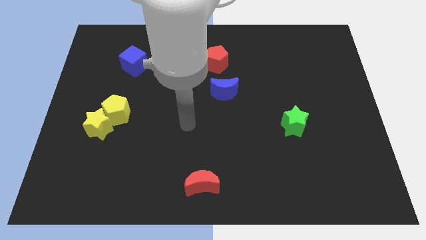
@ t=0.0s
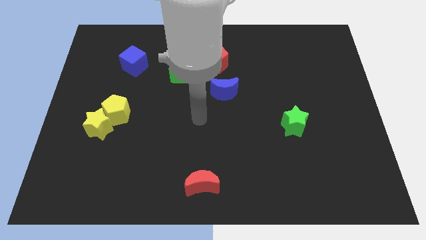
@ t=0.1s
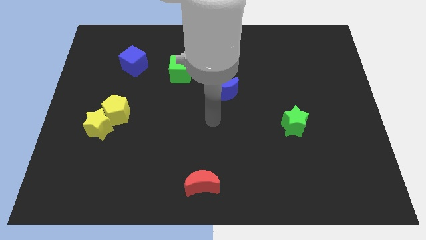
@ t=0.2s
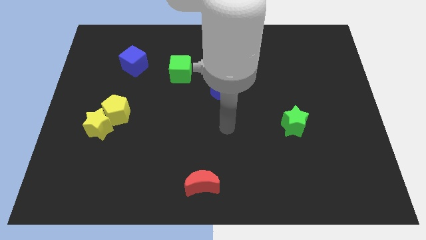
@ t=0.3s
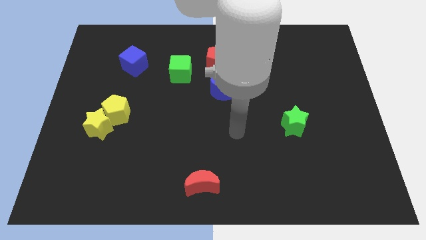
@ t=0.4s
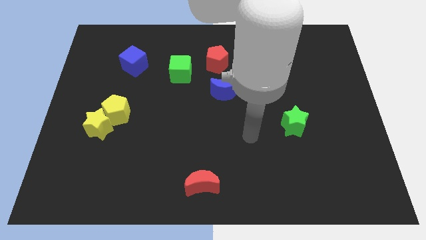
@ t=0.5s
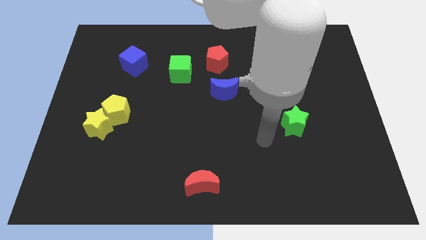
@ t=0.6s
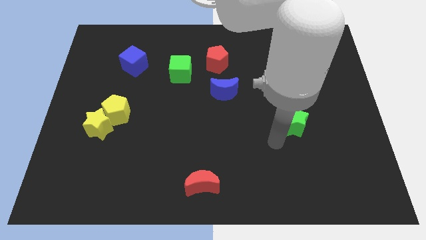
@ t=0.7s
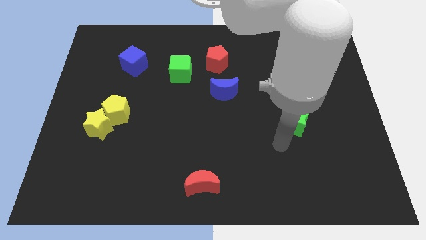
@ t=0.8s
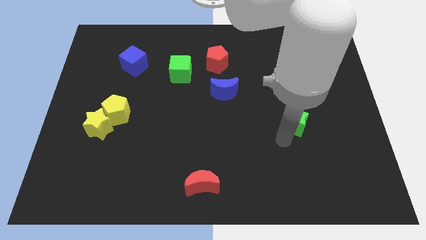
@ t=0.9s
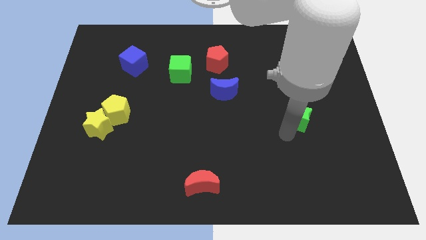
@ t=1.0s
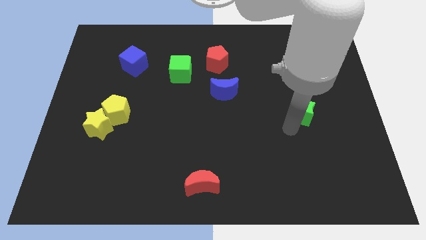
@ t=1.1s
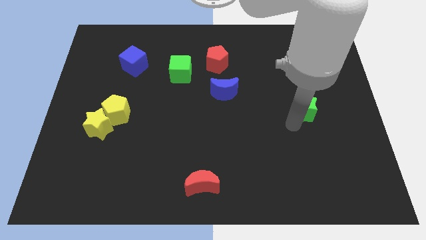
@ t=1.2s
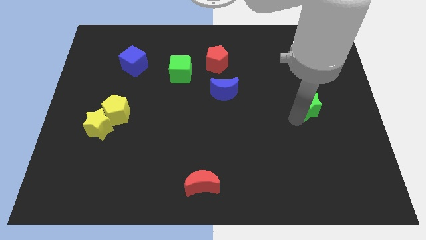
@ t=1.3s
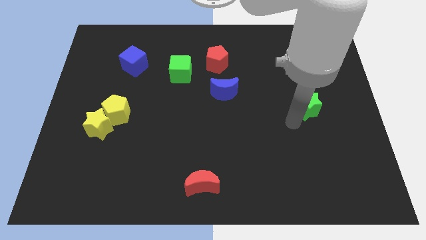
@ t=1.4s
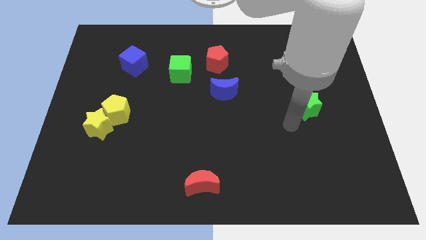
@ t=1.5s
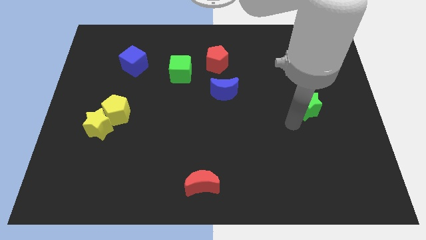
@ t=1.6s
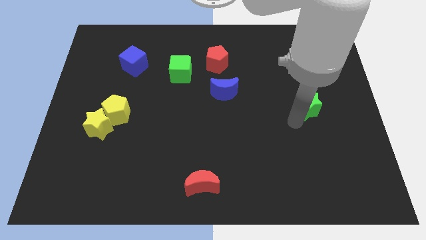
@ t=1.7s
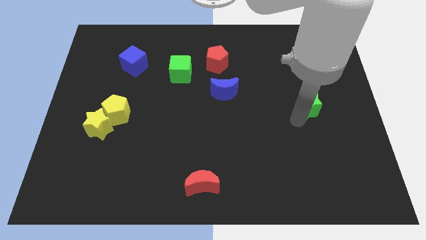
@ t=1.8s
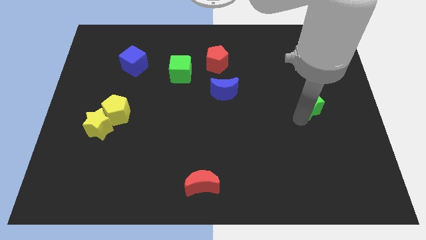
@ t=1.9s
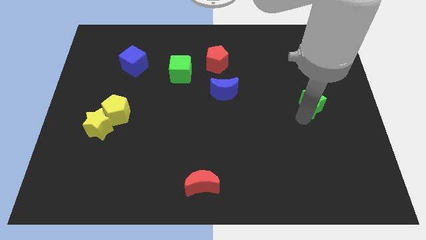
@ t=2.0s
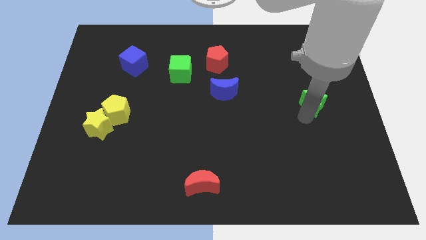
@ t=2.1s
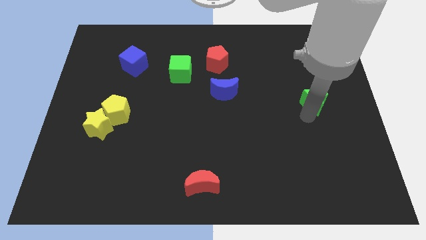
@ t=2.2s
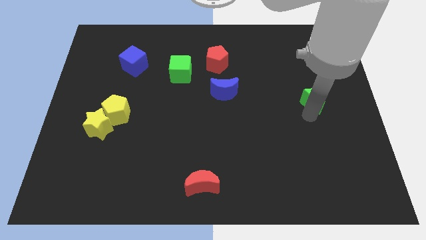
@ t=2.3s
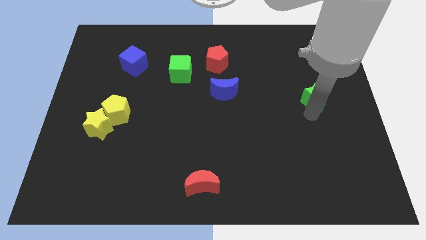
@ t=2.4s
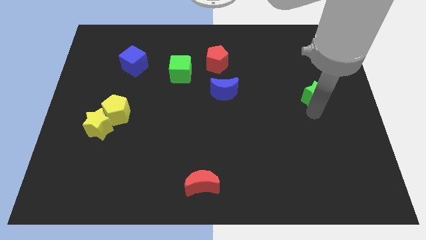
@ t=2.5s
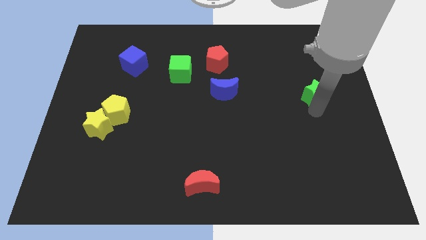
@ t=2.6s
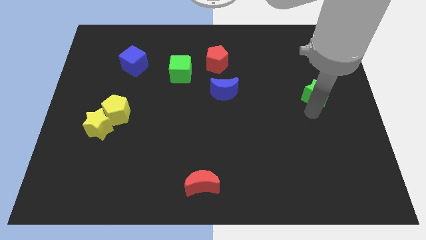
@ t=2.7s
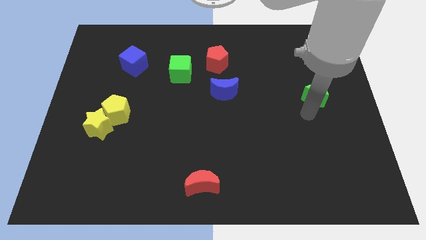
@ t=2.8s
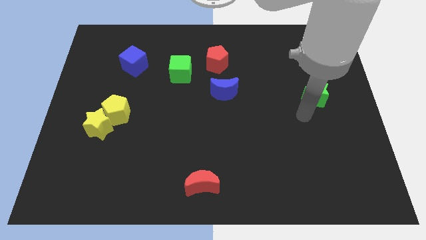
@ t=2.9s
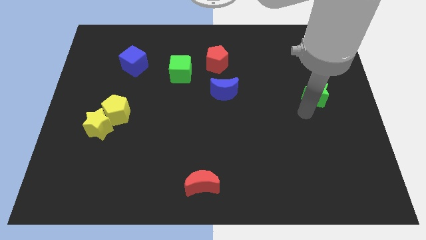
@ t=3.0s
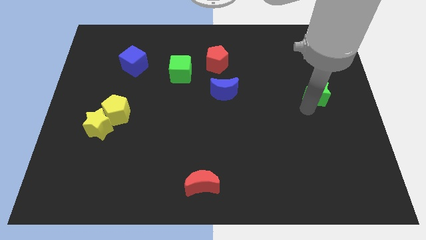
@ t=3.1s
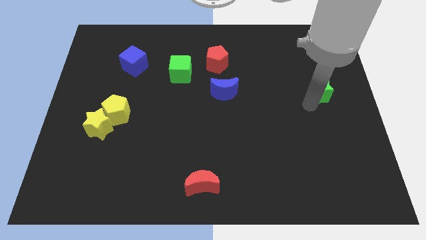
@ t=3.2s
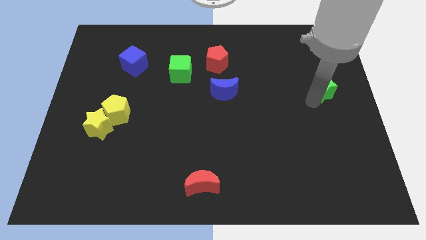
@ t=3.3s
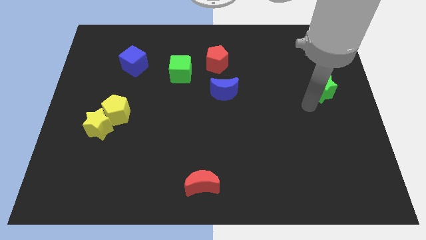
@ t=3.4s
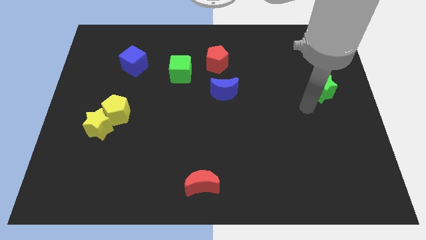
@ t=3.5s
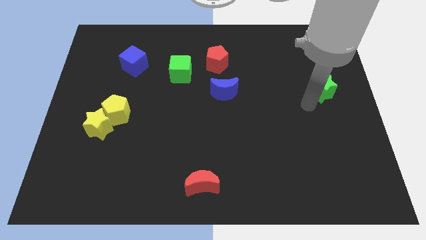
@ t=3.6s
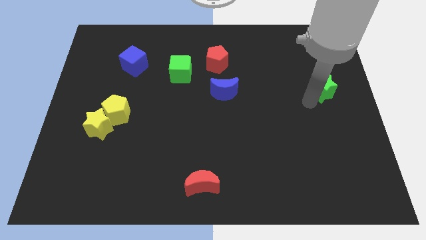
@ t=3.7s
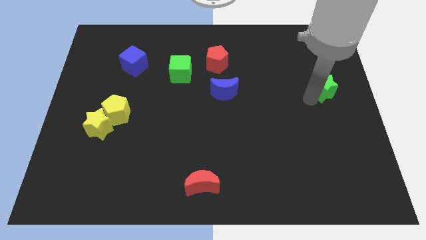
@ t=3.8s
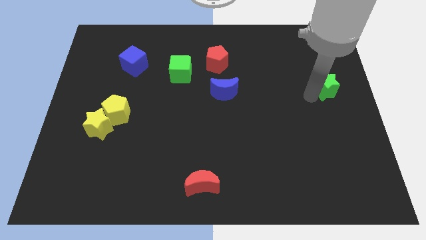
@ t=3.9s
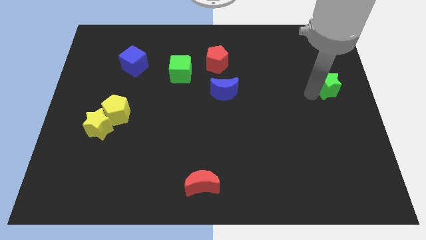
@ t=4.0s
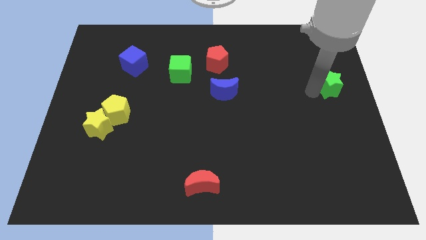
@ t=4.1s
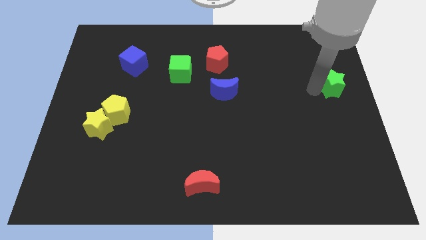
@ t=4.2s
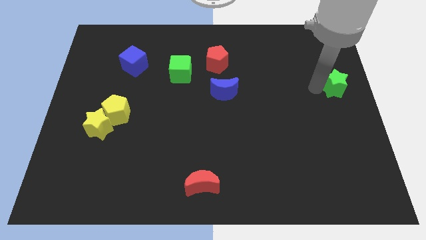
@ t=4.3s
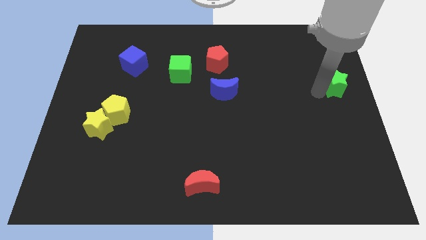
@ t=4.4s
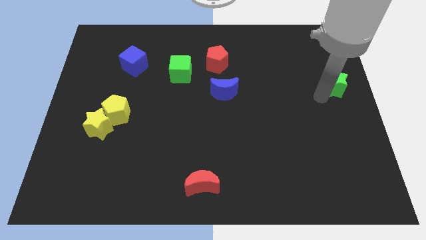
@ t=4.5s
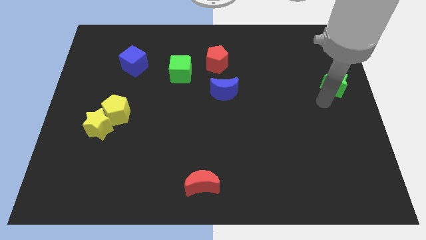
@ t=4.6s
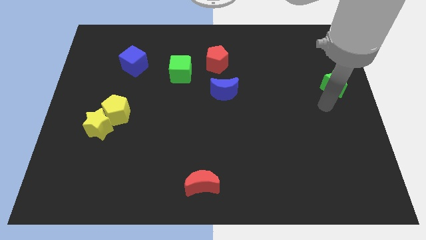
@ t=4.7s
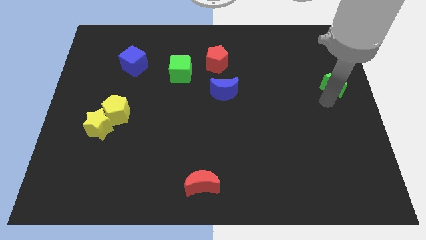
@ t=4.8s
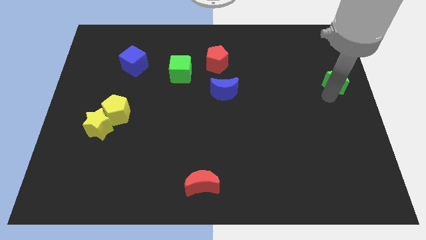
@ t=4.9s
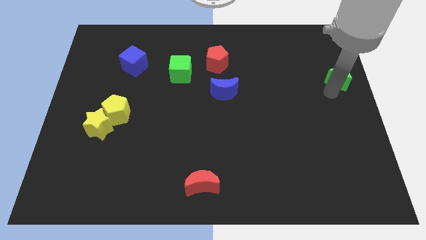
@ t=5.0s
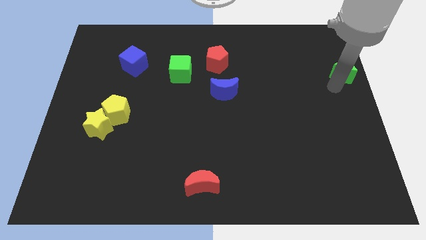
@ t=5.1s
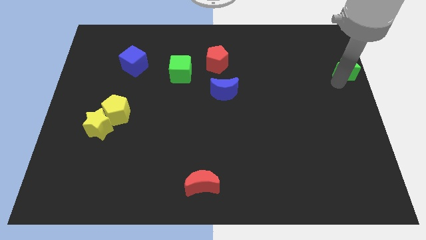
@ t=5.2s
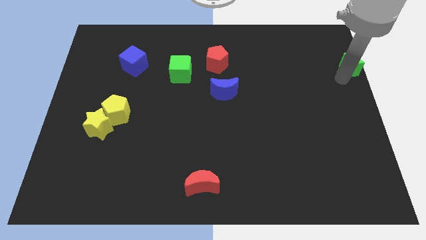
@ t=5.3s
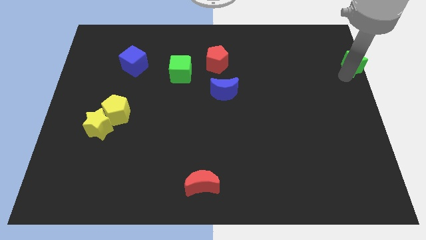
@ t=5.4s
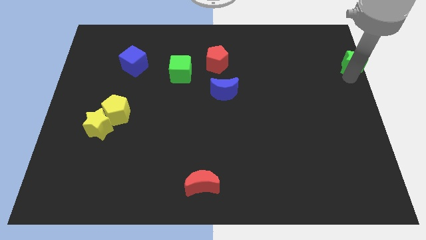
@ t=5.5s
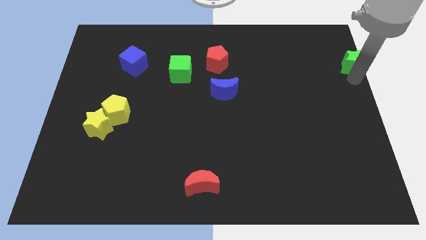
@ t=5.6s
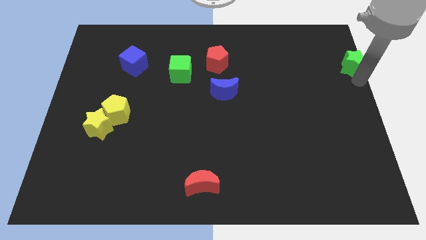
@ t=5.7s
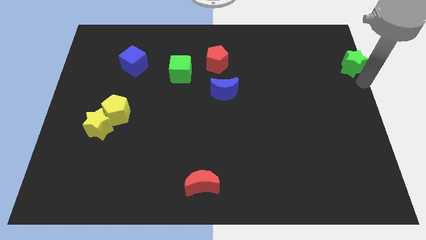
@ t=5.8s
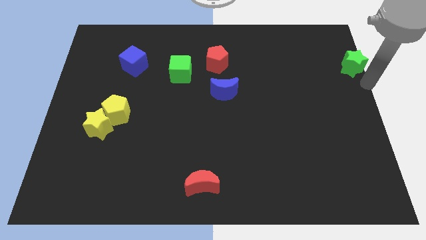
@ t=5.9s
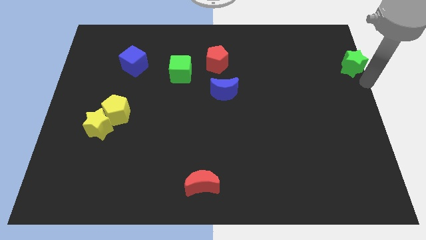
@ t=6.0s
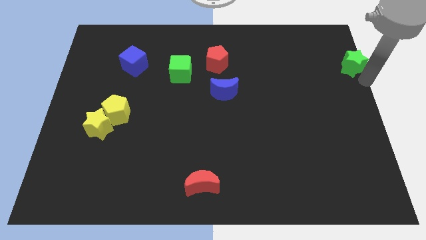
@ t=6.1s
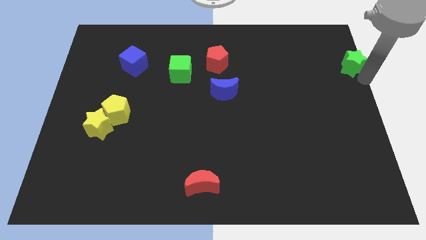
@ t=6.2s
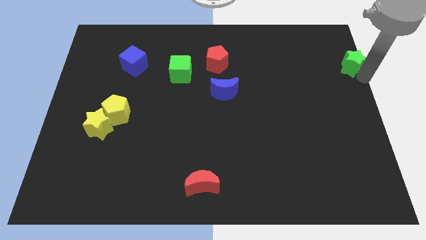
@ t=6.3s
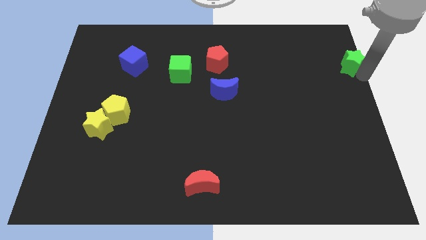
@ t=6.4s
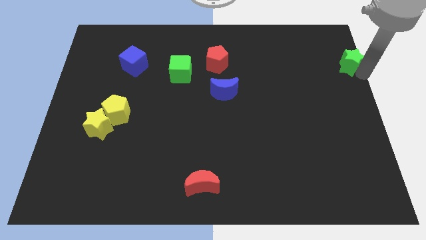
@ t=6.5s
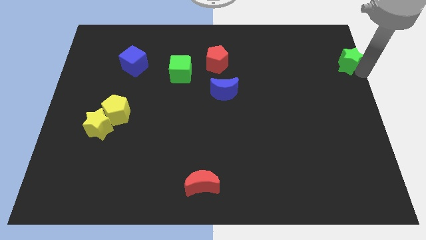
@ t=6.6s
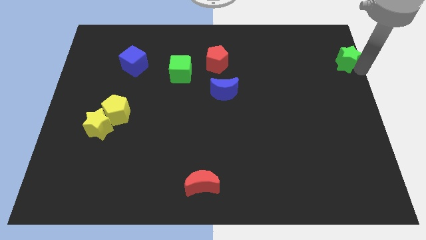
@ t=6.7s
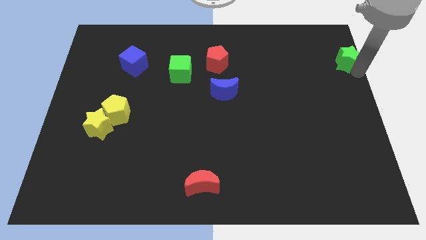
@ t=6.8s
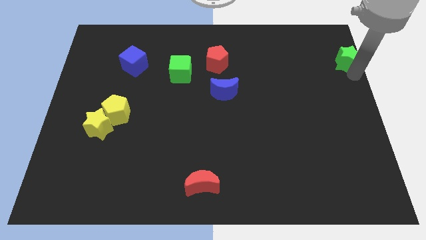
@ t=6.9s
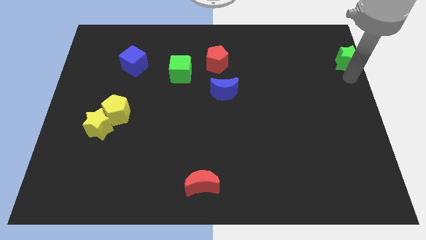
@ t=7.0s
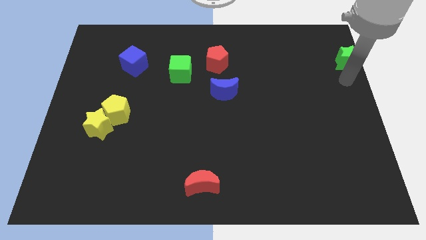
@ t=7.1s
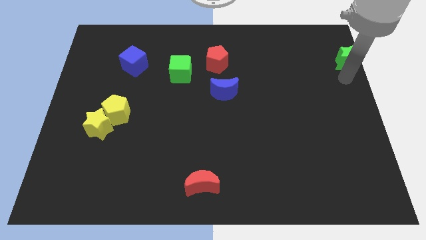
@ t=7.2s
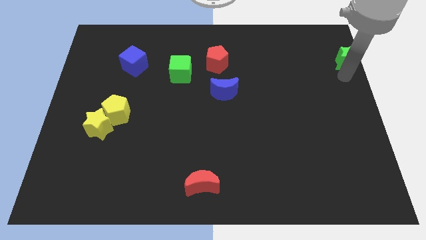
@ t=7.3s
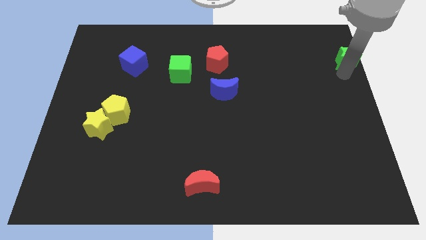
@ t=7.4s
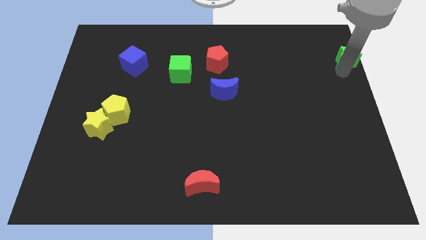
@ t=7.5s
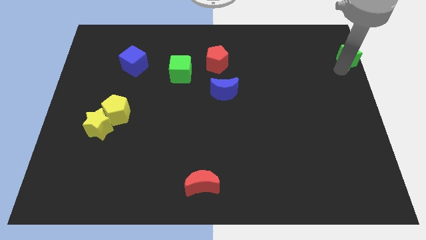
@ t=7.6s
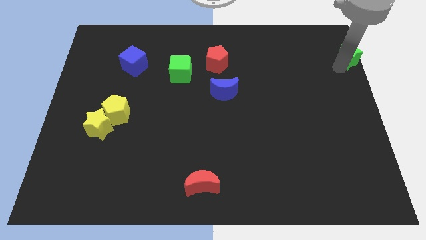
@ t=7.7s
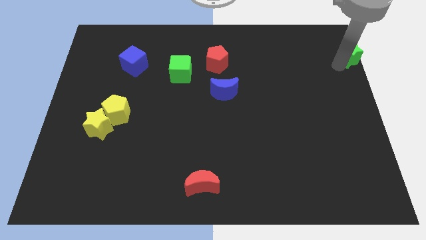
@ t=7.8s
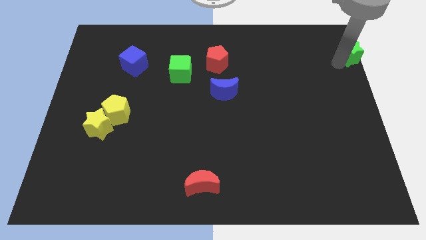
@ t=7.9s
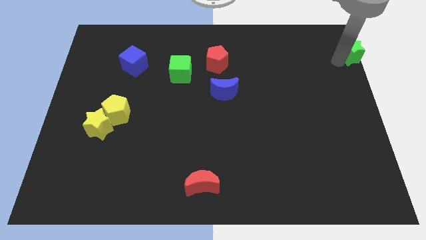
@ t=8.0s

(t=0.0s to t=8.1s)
put the green star to the top right corner
